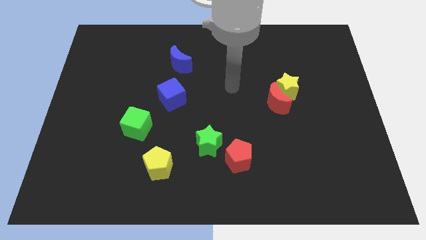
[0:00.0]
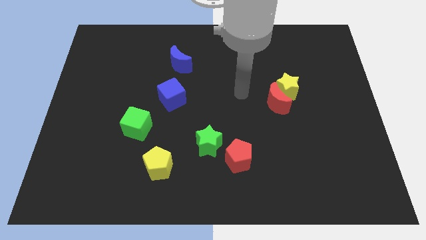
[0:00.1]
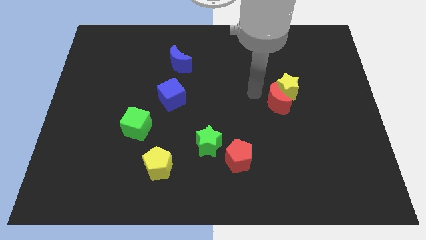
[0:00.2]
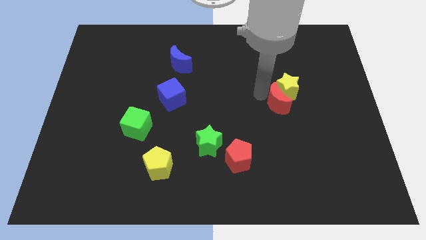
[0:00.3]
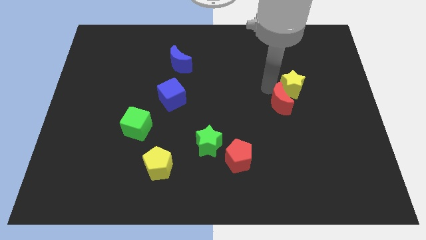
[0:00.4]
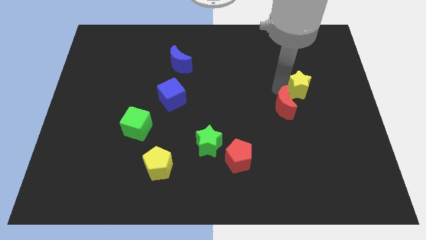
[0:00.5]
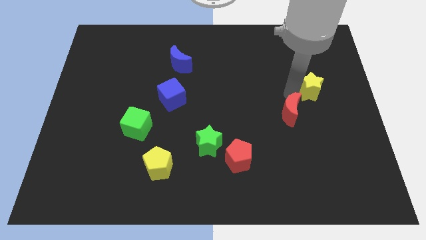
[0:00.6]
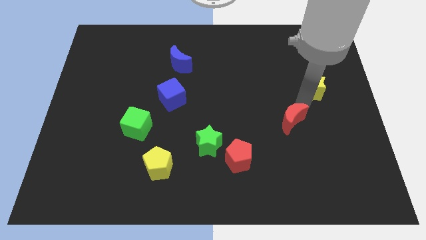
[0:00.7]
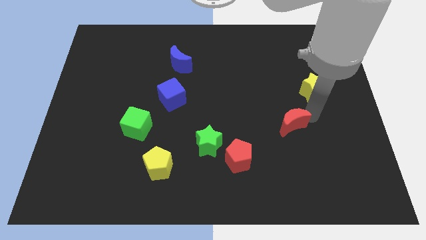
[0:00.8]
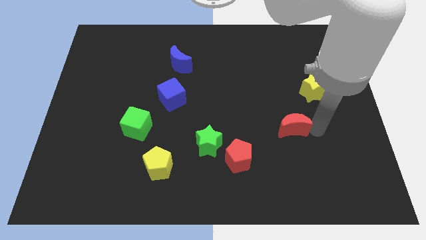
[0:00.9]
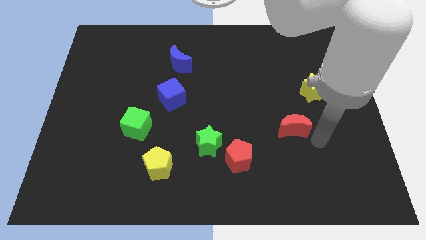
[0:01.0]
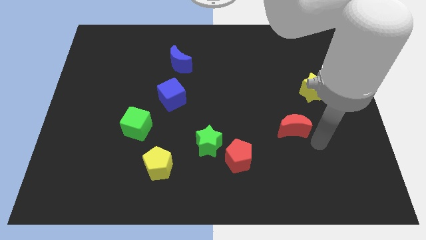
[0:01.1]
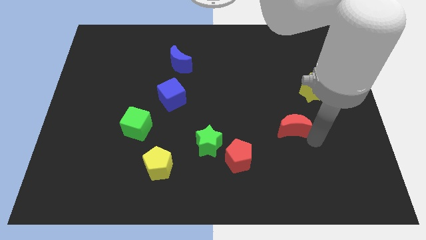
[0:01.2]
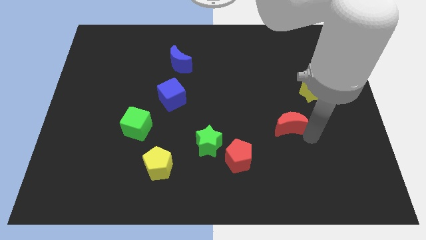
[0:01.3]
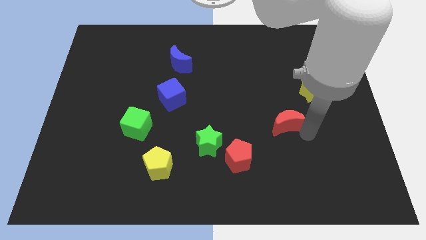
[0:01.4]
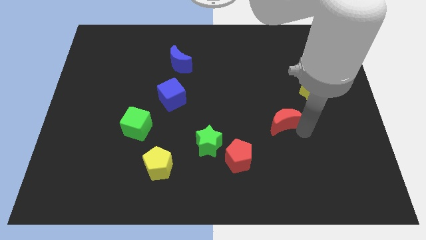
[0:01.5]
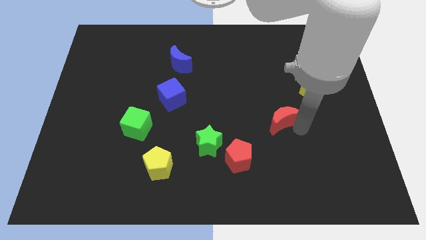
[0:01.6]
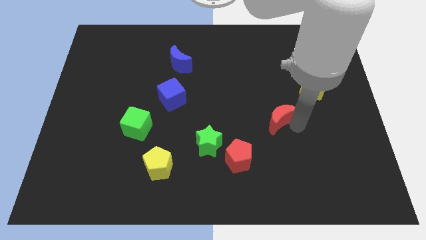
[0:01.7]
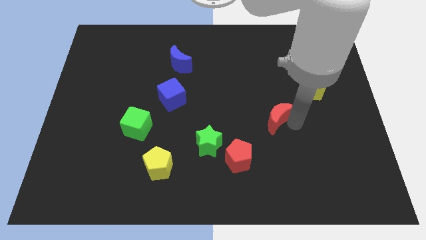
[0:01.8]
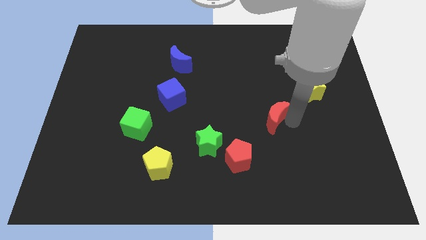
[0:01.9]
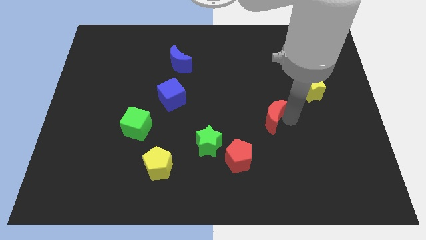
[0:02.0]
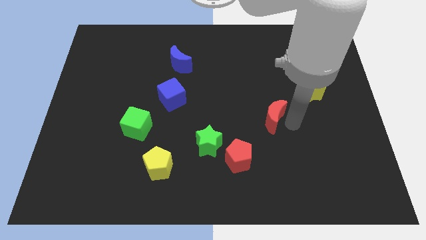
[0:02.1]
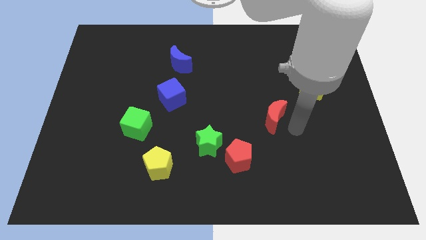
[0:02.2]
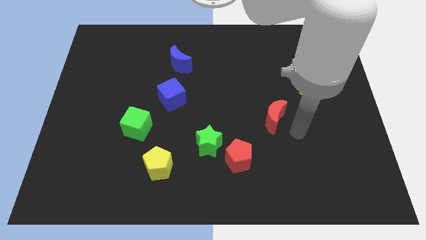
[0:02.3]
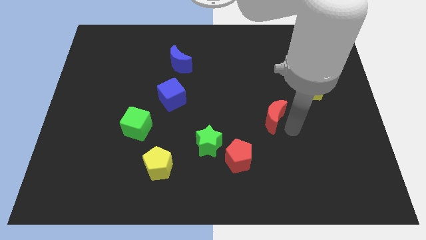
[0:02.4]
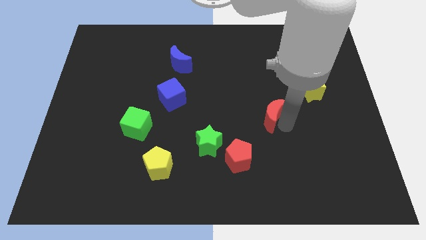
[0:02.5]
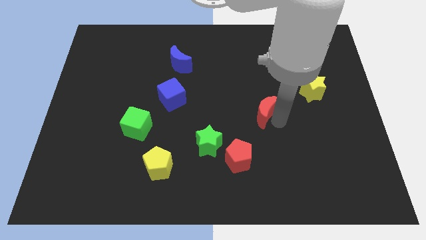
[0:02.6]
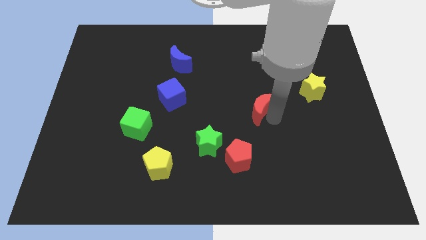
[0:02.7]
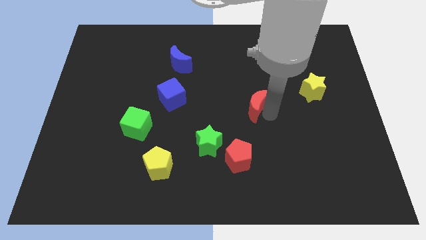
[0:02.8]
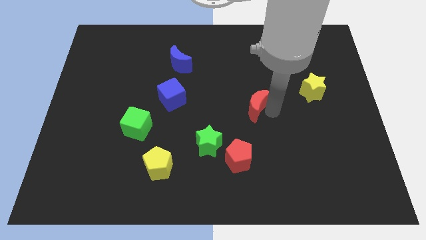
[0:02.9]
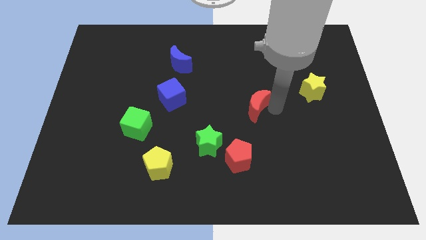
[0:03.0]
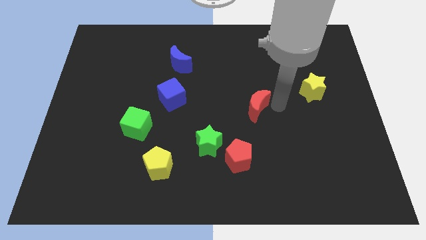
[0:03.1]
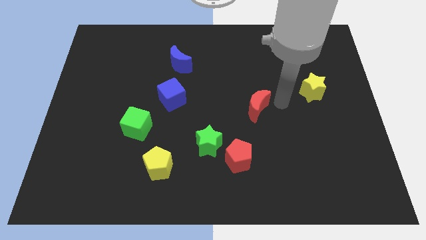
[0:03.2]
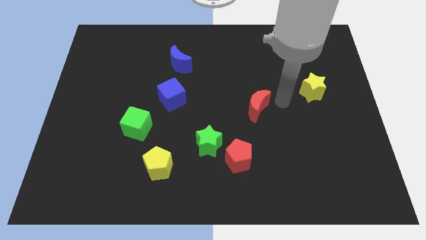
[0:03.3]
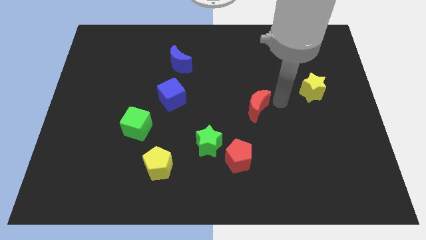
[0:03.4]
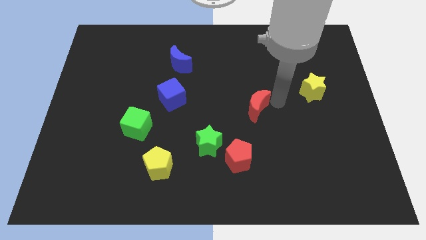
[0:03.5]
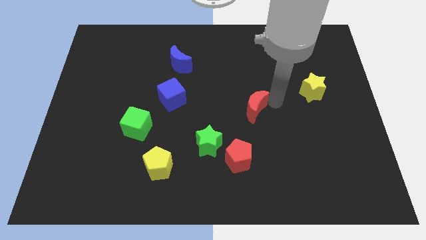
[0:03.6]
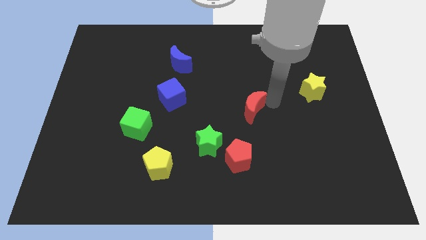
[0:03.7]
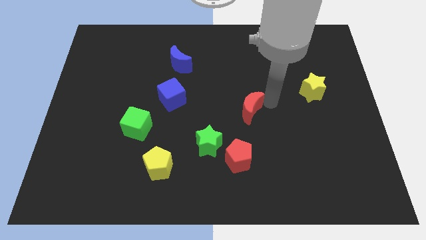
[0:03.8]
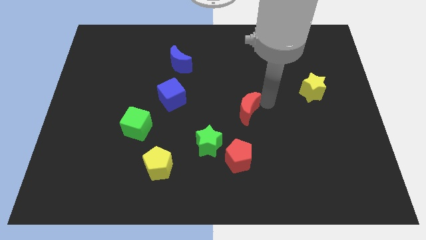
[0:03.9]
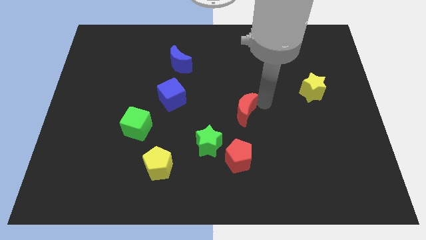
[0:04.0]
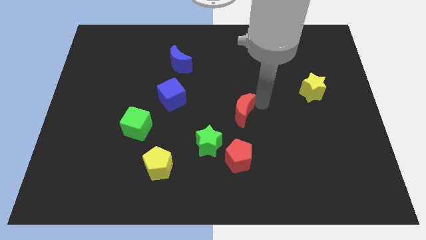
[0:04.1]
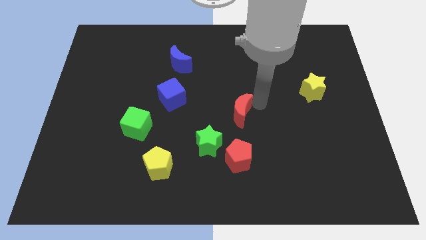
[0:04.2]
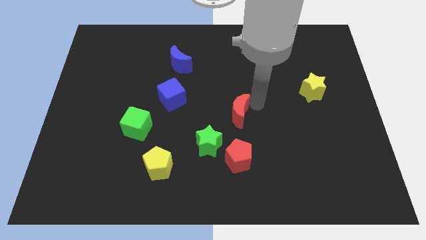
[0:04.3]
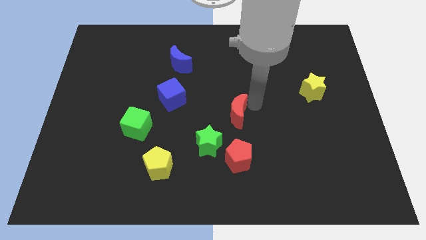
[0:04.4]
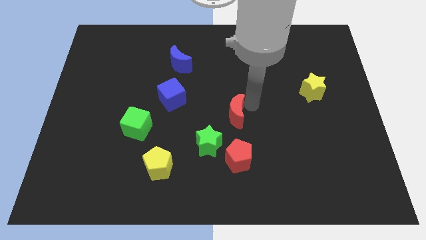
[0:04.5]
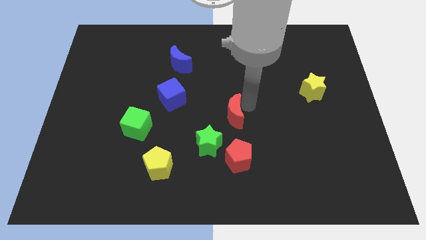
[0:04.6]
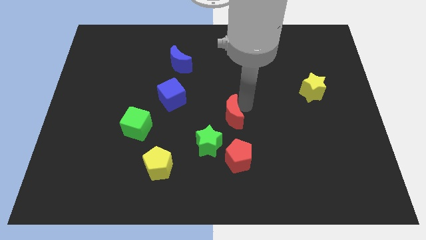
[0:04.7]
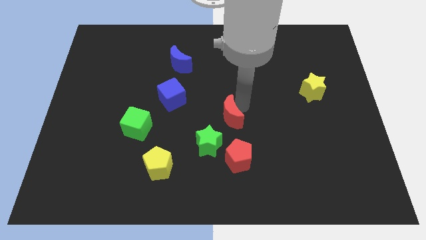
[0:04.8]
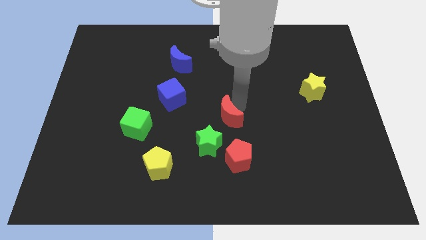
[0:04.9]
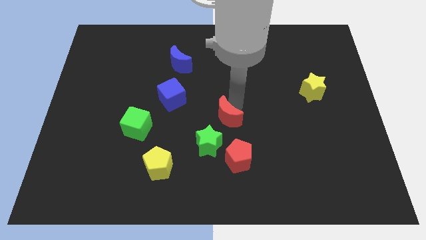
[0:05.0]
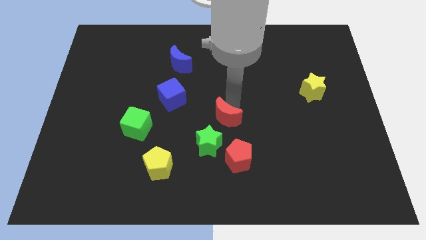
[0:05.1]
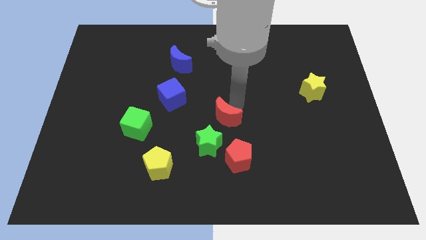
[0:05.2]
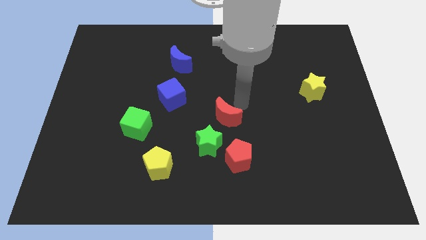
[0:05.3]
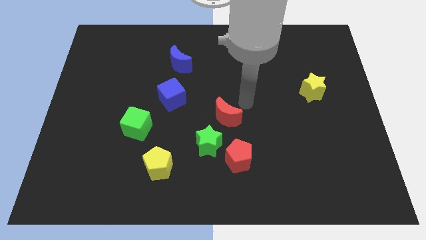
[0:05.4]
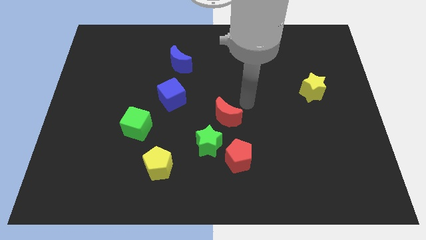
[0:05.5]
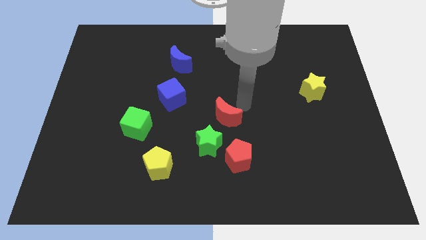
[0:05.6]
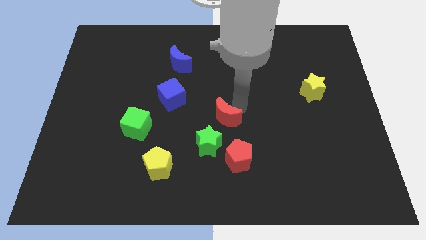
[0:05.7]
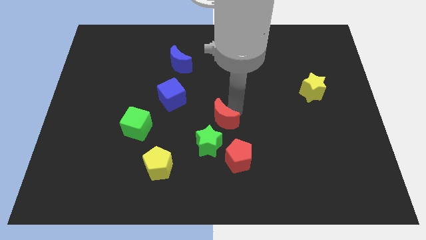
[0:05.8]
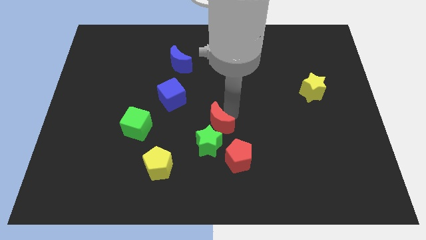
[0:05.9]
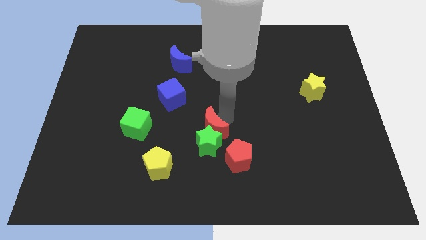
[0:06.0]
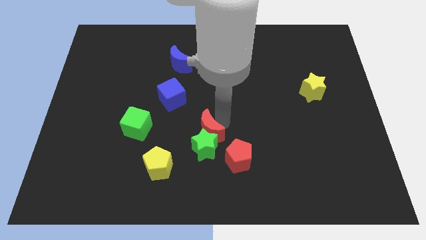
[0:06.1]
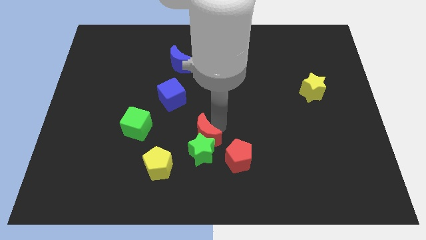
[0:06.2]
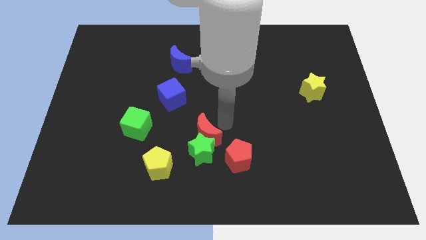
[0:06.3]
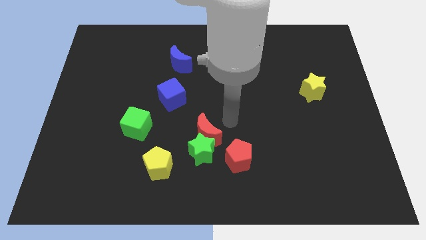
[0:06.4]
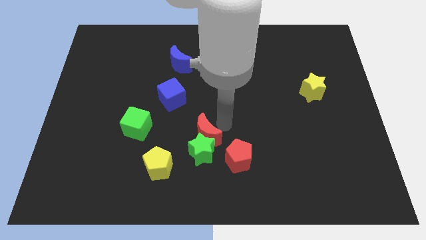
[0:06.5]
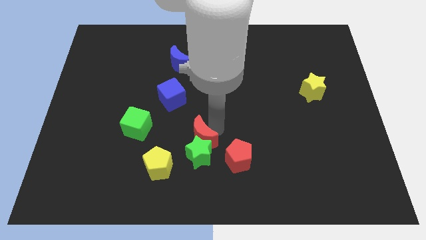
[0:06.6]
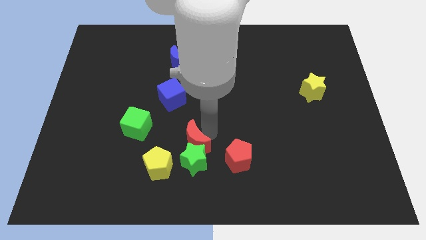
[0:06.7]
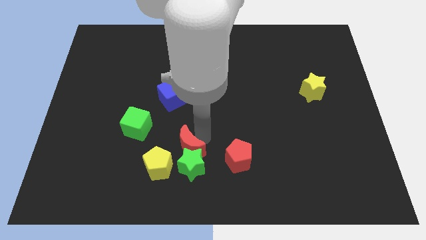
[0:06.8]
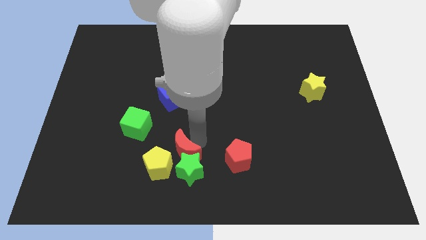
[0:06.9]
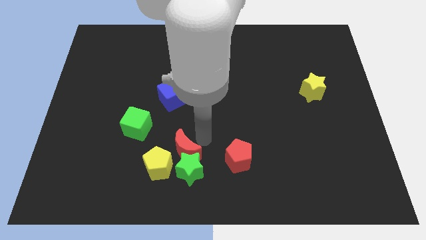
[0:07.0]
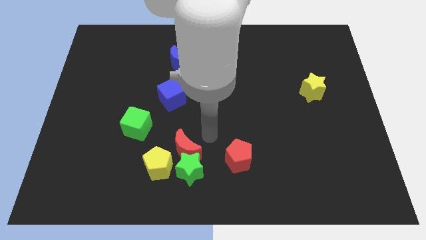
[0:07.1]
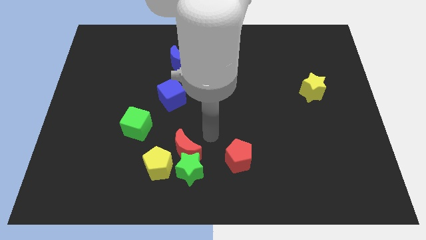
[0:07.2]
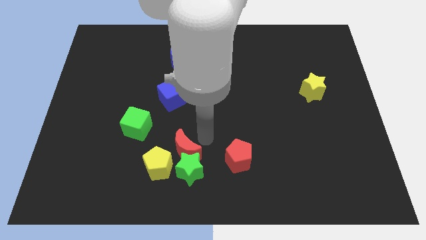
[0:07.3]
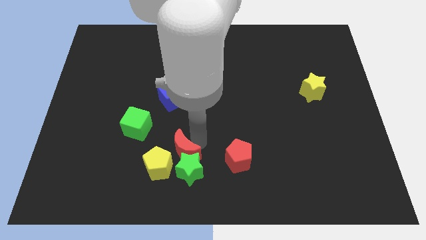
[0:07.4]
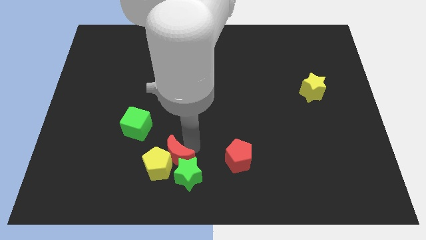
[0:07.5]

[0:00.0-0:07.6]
move the red moon towards the yellow pentagon
